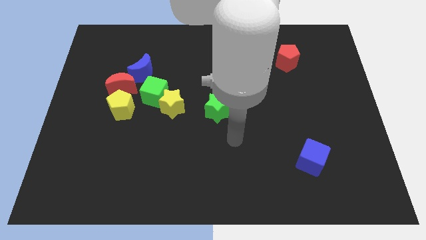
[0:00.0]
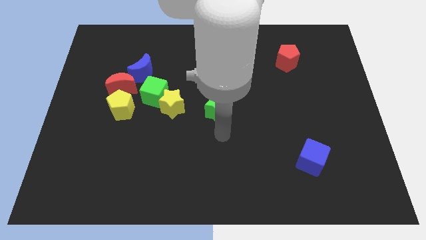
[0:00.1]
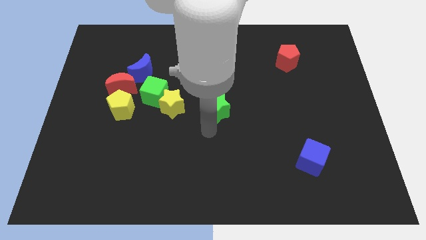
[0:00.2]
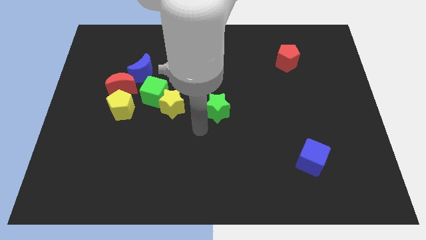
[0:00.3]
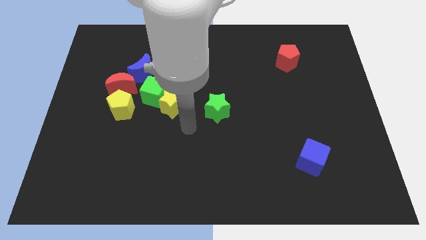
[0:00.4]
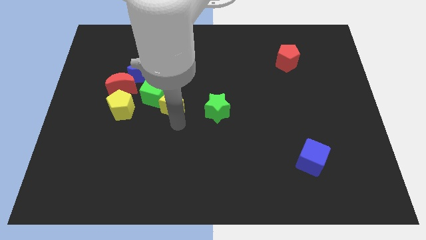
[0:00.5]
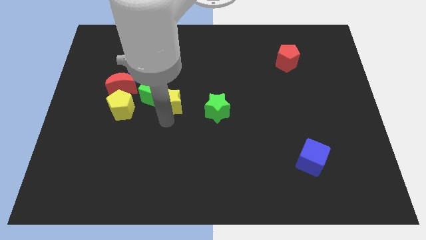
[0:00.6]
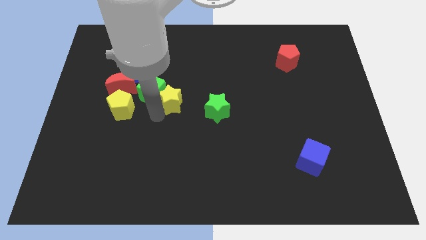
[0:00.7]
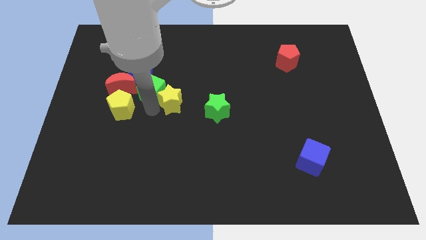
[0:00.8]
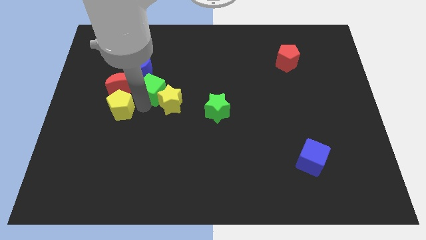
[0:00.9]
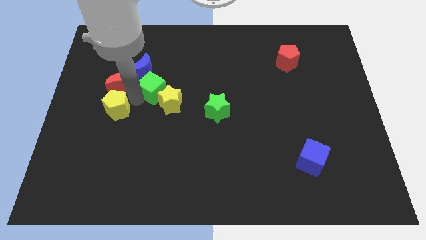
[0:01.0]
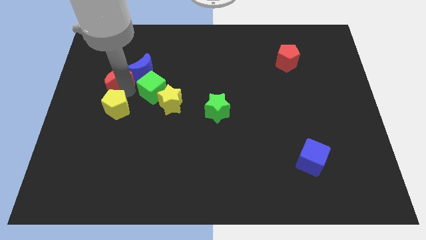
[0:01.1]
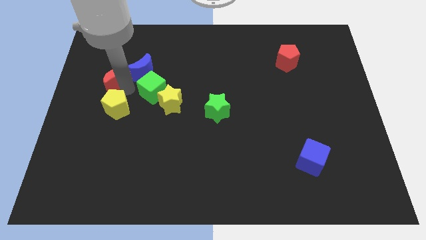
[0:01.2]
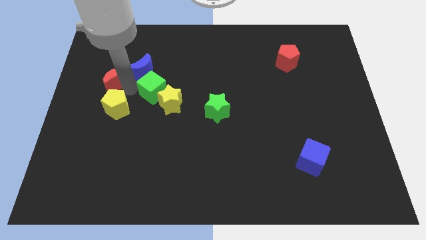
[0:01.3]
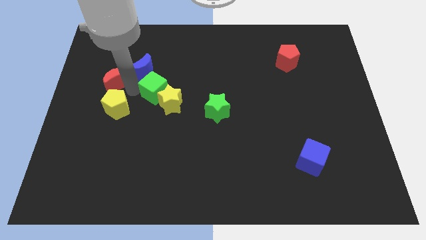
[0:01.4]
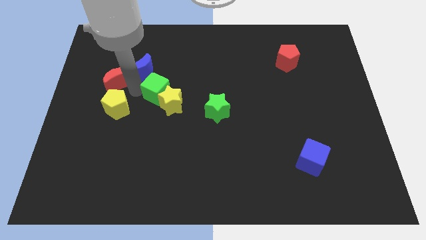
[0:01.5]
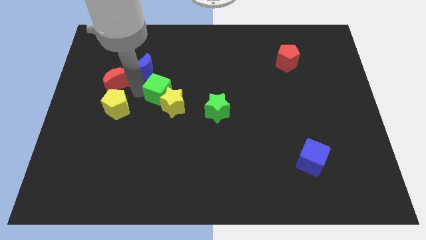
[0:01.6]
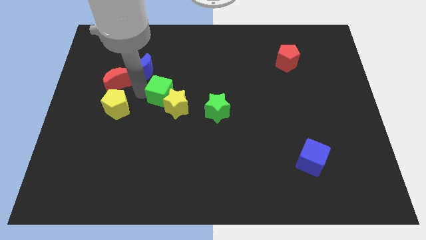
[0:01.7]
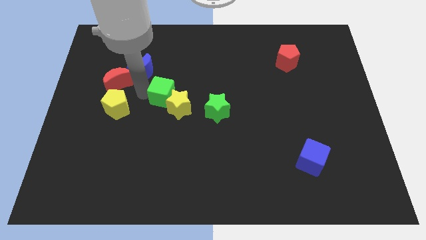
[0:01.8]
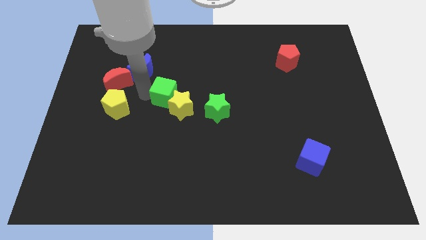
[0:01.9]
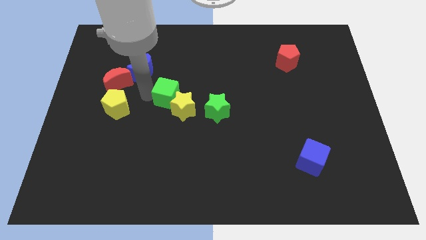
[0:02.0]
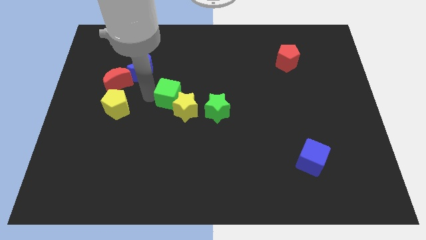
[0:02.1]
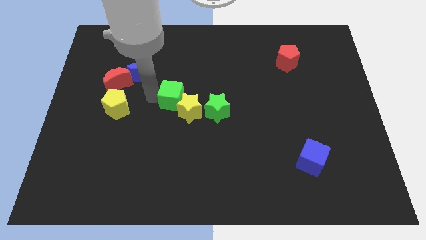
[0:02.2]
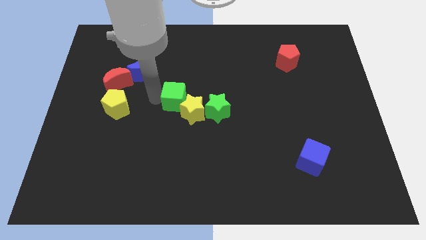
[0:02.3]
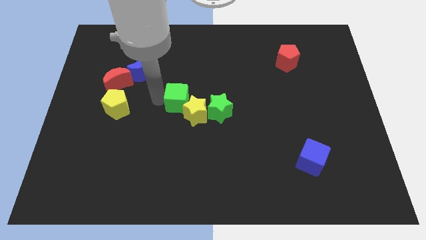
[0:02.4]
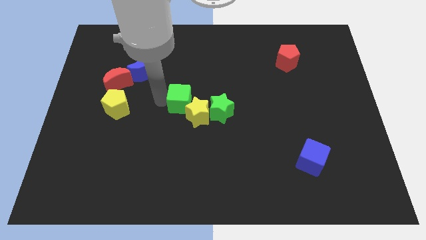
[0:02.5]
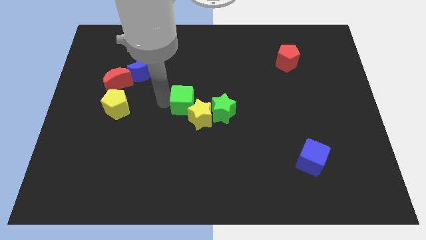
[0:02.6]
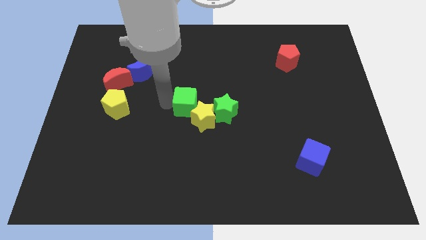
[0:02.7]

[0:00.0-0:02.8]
slide the green cube a bit right

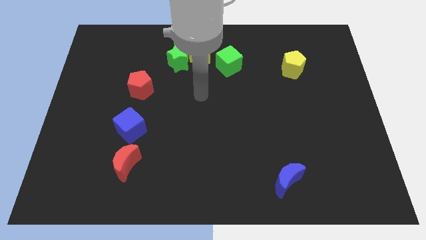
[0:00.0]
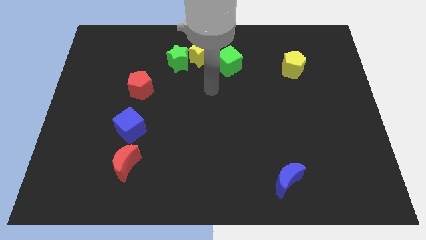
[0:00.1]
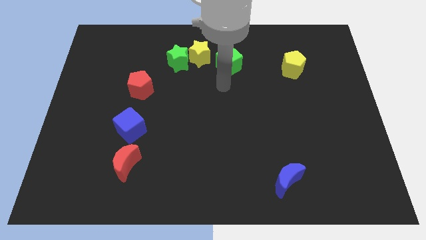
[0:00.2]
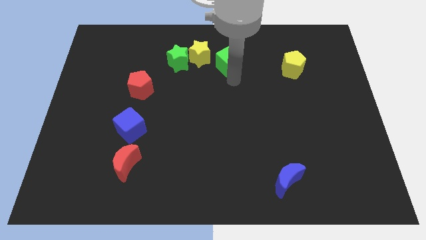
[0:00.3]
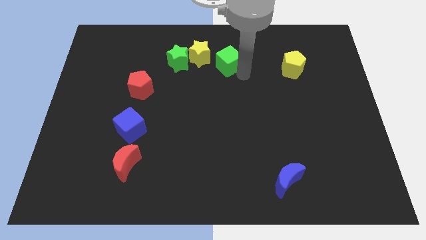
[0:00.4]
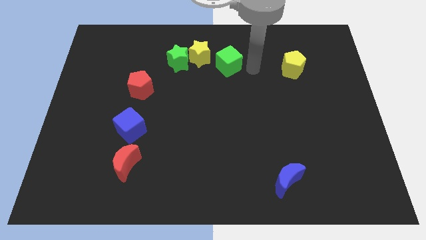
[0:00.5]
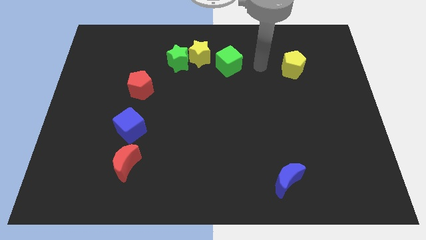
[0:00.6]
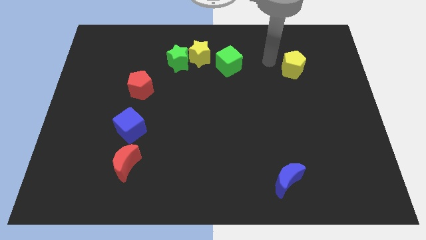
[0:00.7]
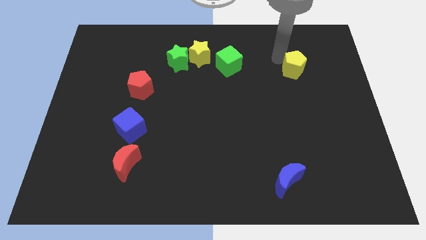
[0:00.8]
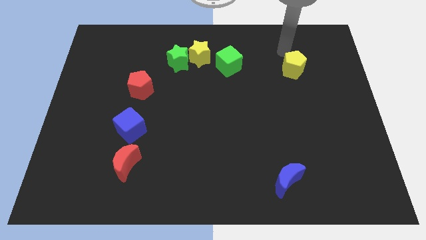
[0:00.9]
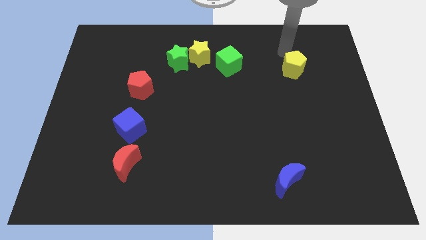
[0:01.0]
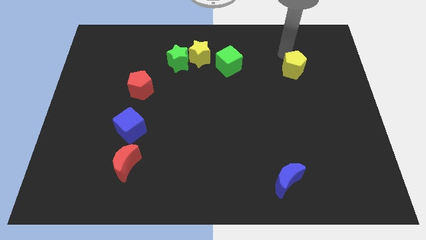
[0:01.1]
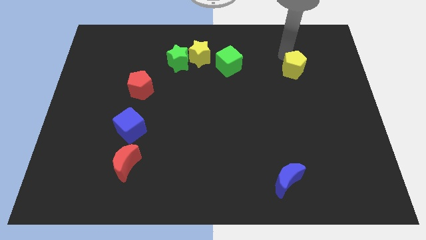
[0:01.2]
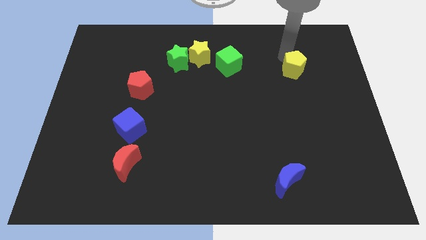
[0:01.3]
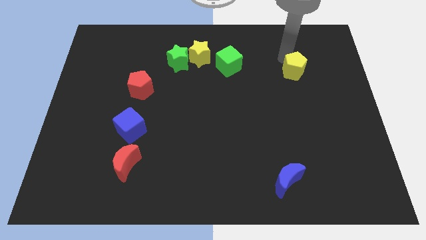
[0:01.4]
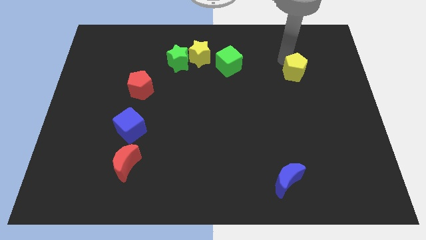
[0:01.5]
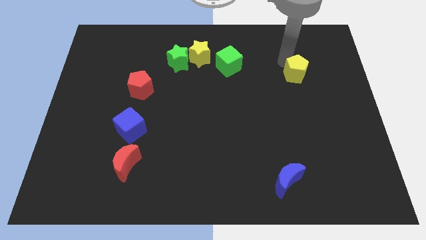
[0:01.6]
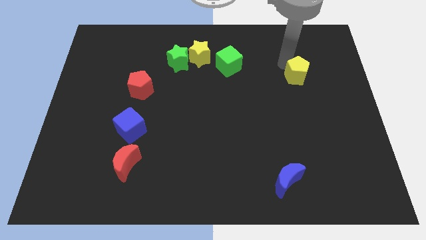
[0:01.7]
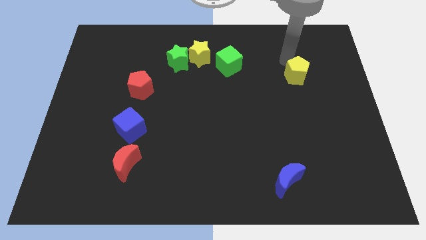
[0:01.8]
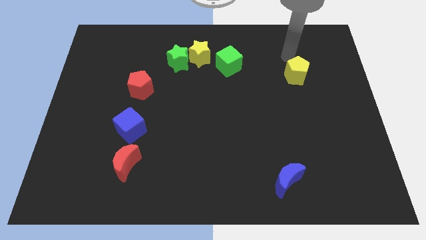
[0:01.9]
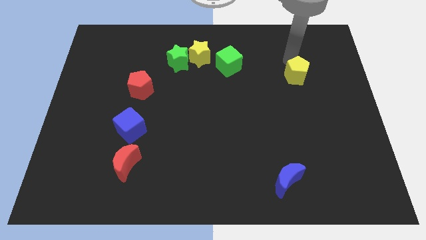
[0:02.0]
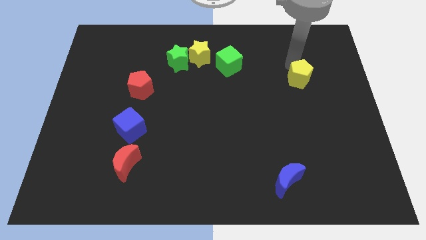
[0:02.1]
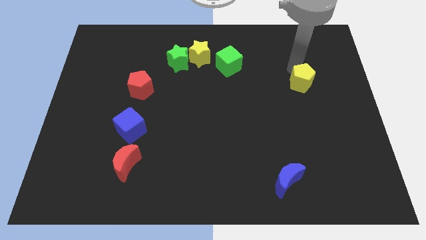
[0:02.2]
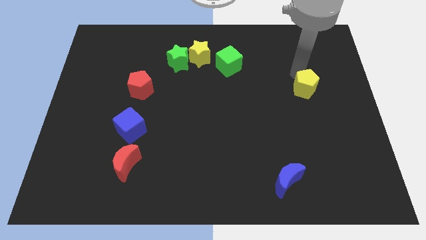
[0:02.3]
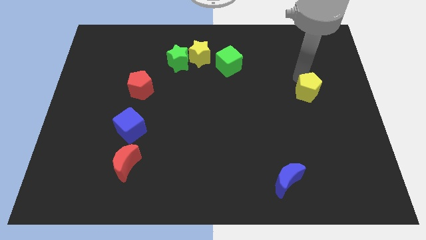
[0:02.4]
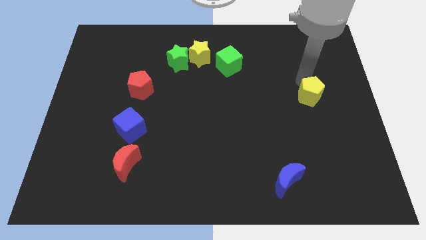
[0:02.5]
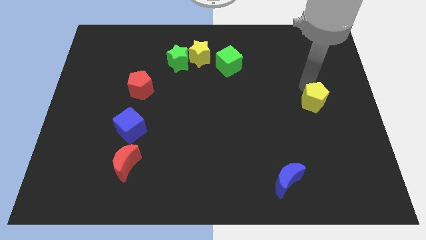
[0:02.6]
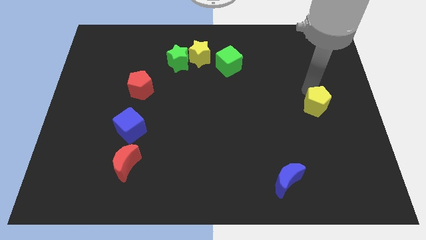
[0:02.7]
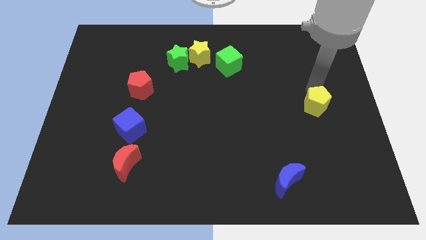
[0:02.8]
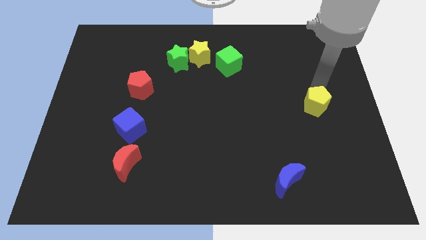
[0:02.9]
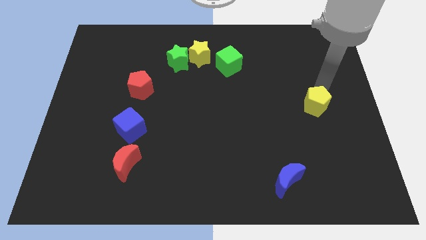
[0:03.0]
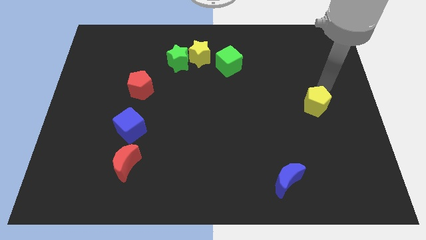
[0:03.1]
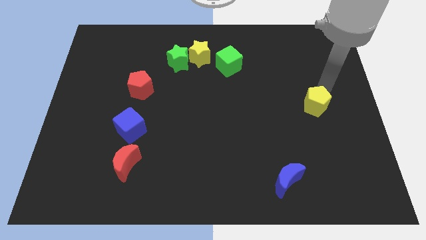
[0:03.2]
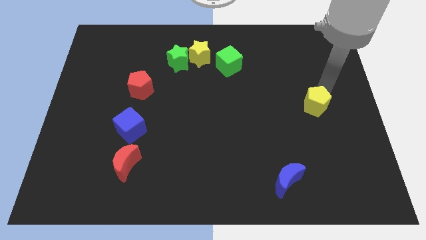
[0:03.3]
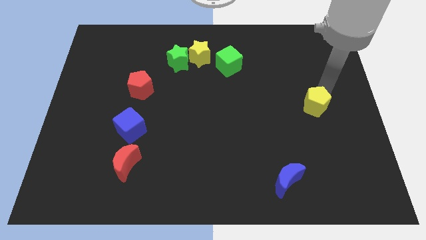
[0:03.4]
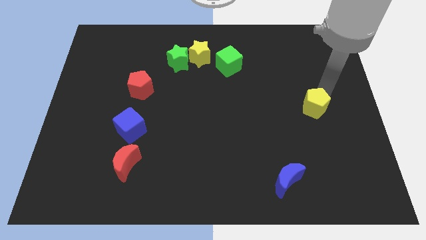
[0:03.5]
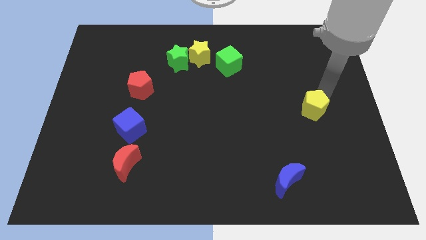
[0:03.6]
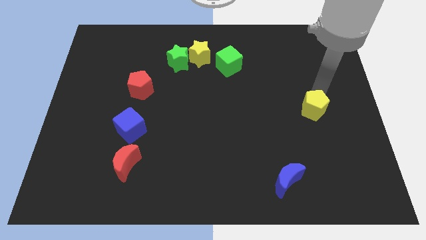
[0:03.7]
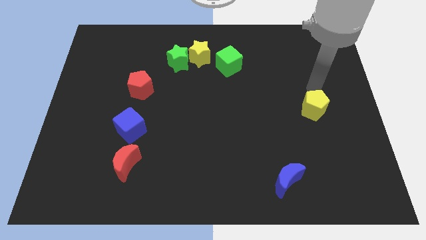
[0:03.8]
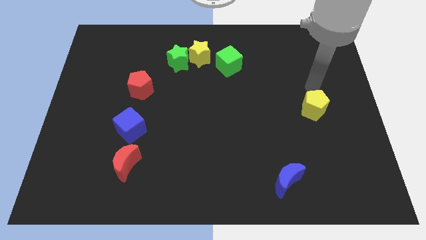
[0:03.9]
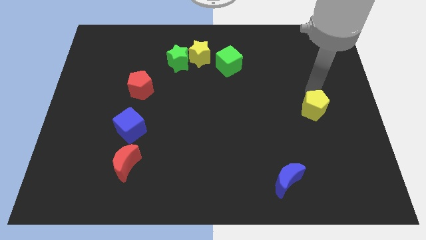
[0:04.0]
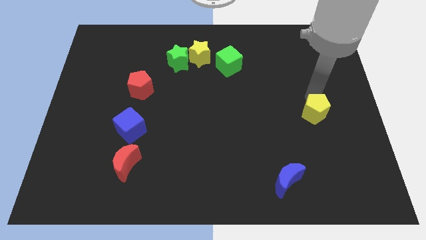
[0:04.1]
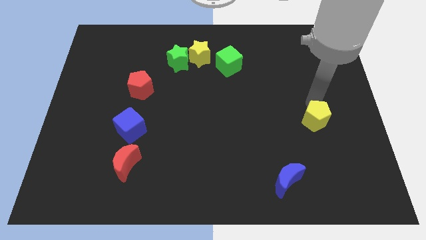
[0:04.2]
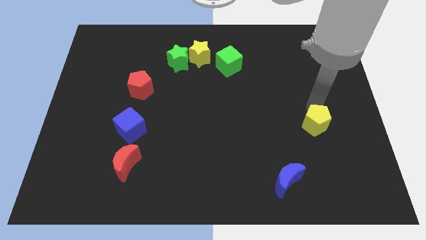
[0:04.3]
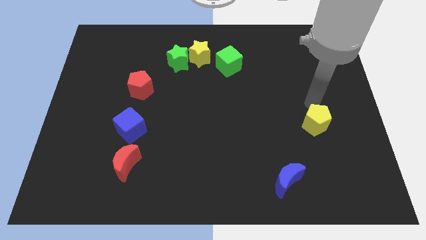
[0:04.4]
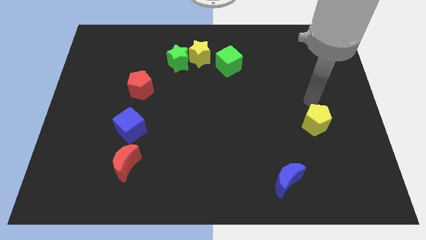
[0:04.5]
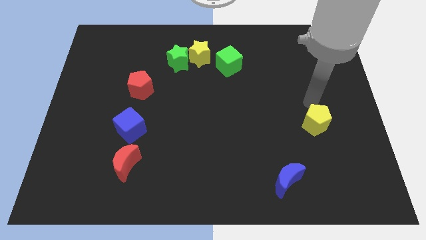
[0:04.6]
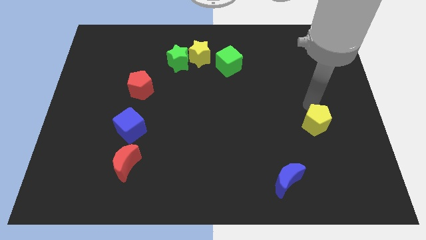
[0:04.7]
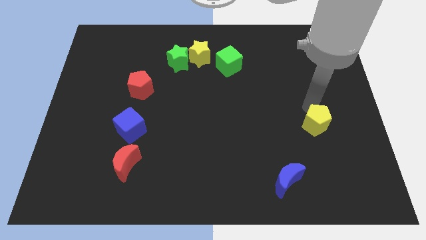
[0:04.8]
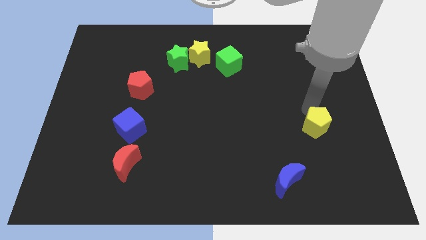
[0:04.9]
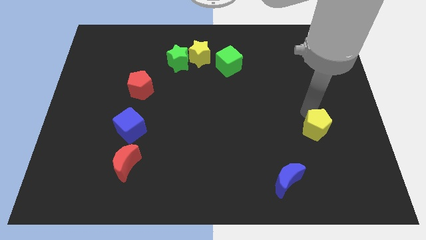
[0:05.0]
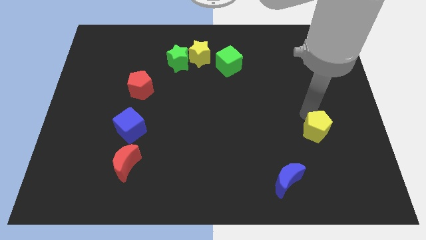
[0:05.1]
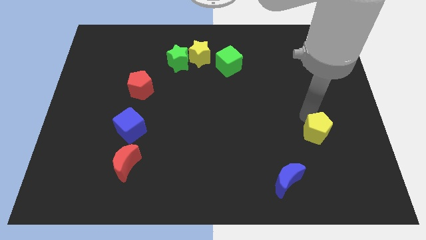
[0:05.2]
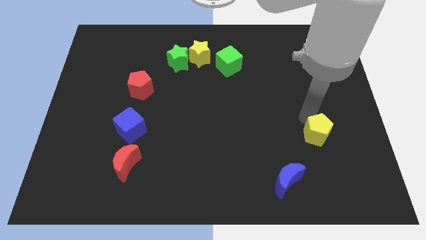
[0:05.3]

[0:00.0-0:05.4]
move the yellow pentagon down

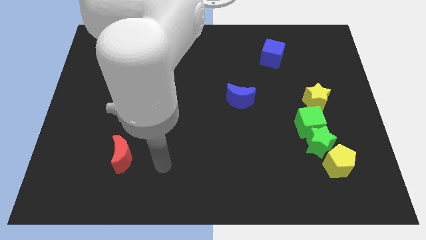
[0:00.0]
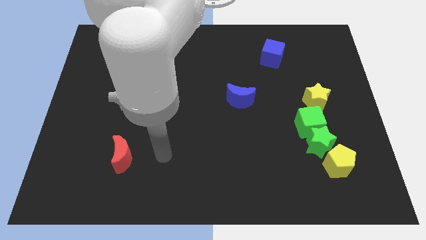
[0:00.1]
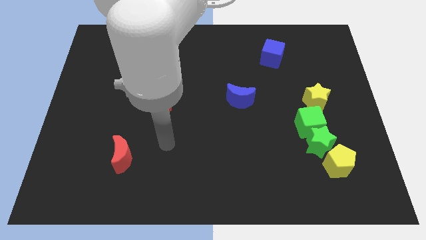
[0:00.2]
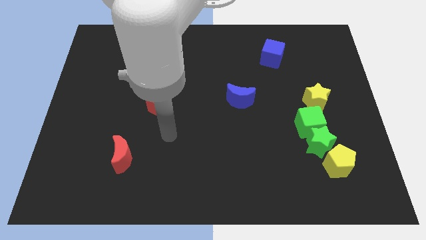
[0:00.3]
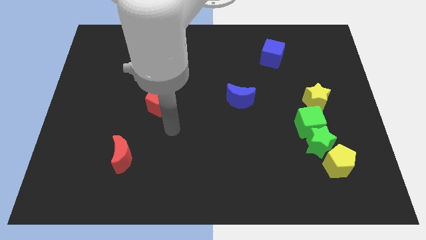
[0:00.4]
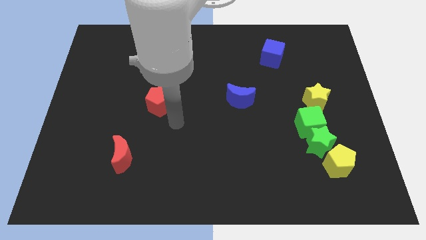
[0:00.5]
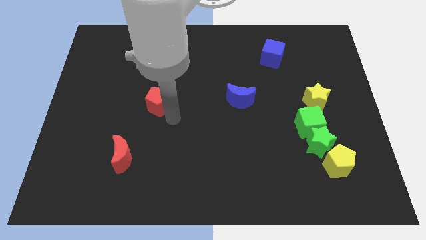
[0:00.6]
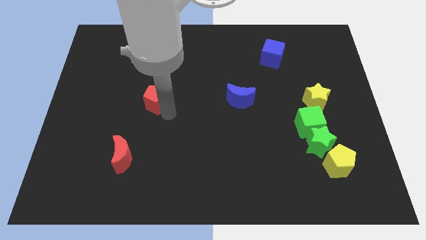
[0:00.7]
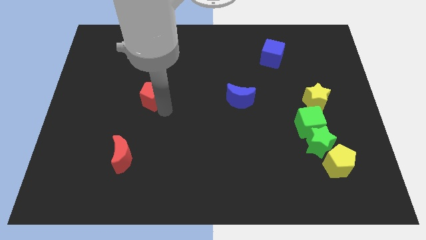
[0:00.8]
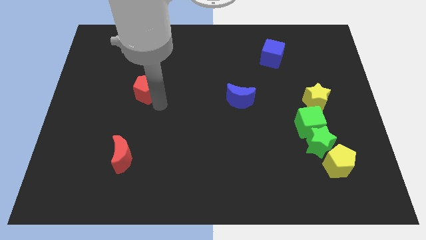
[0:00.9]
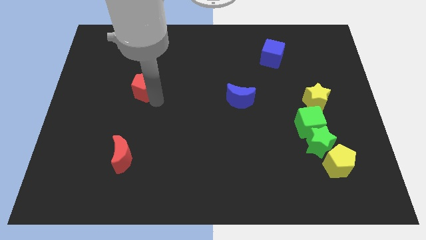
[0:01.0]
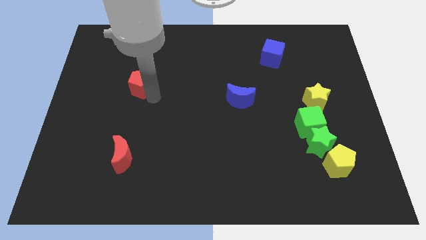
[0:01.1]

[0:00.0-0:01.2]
push the red pentagon a little bit diagonally up and to the left
